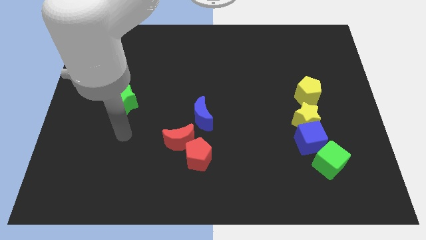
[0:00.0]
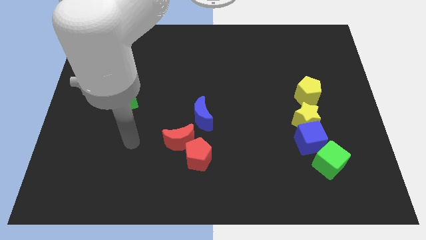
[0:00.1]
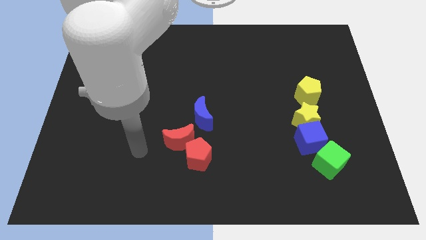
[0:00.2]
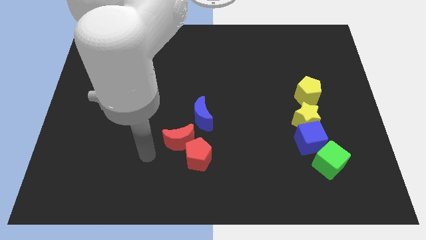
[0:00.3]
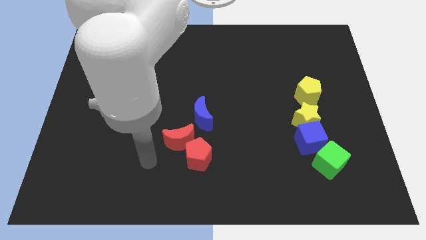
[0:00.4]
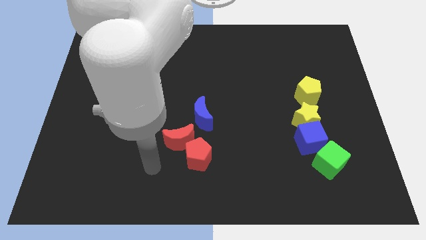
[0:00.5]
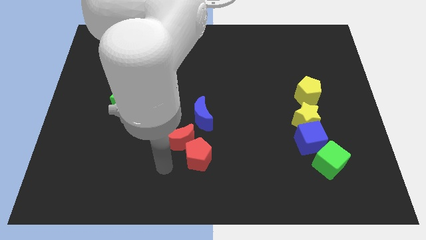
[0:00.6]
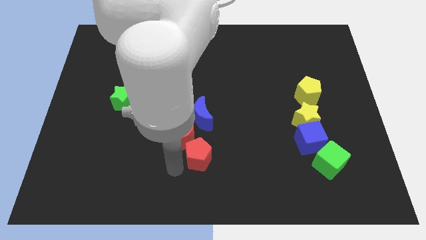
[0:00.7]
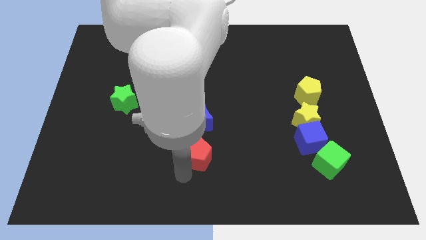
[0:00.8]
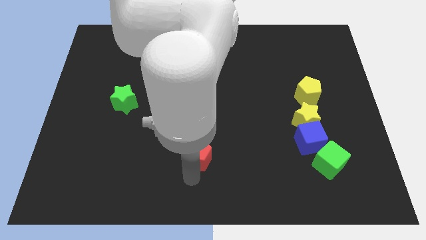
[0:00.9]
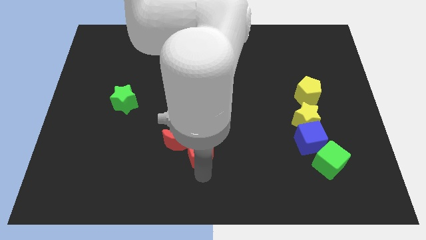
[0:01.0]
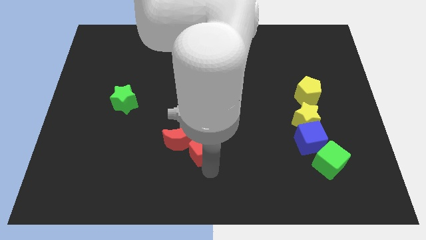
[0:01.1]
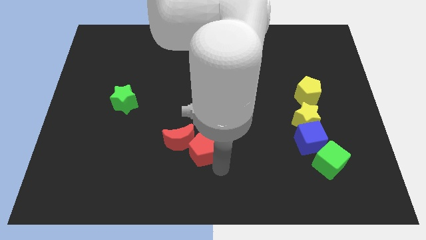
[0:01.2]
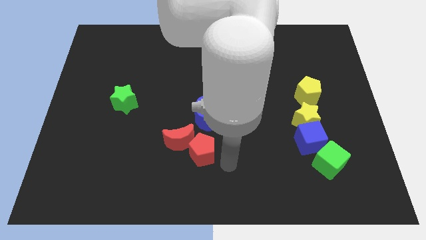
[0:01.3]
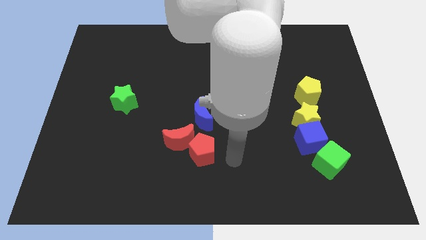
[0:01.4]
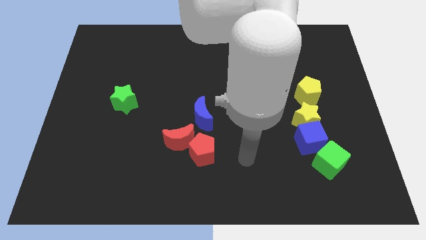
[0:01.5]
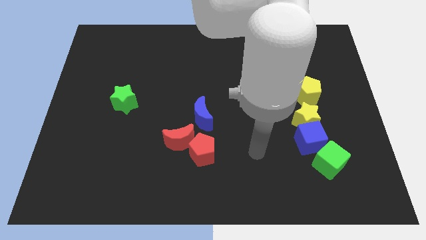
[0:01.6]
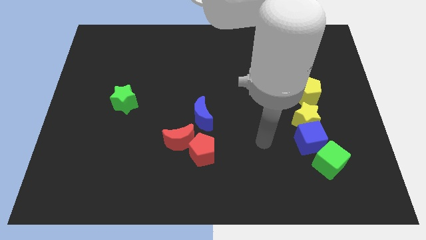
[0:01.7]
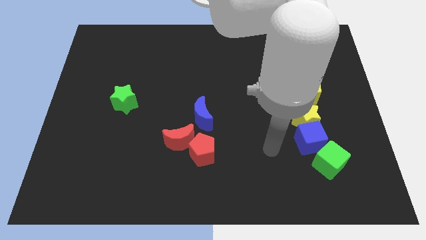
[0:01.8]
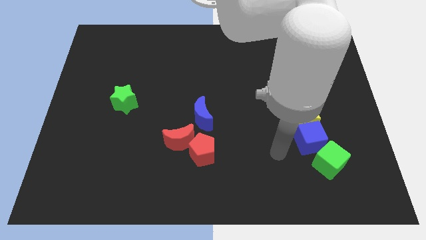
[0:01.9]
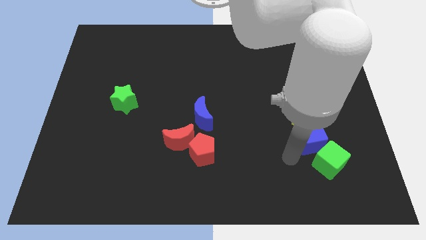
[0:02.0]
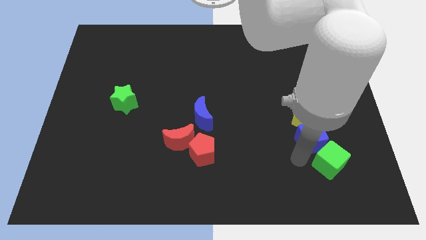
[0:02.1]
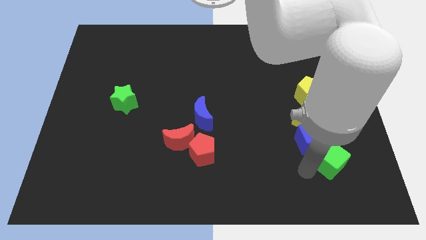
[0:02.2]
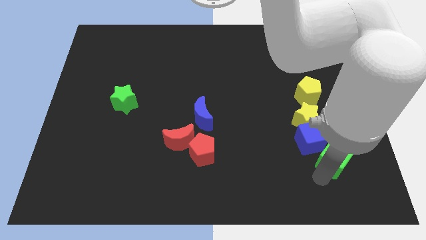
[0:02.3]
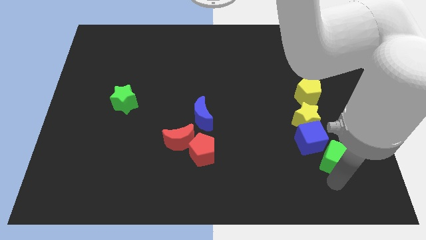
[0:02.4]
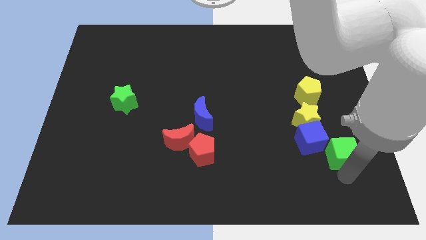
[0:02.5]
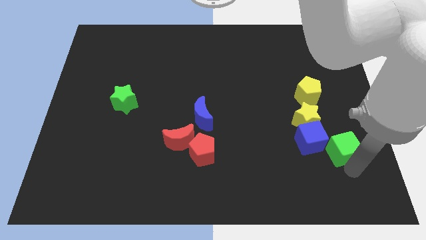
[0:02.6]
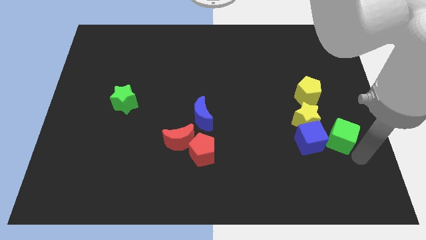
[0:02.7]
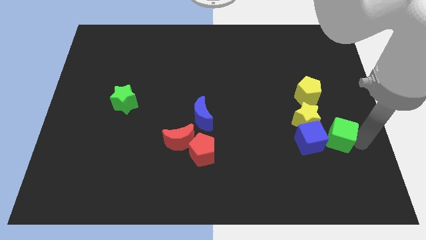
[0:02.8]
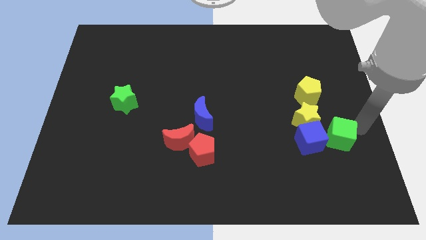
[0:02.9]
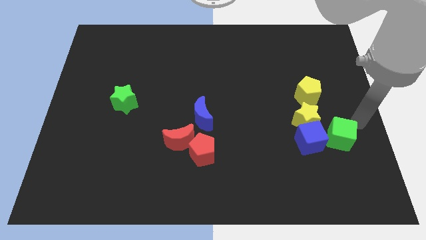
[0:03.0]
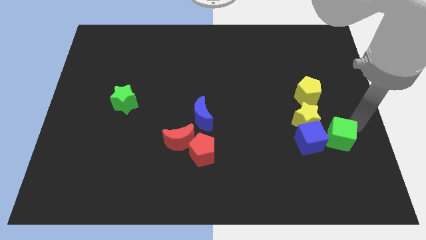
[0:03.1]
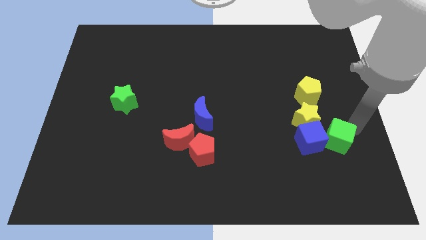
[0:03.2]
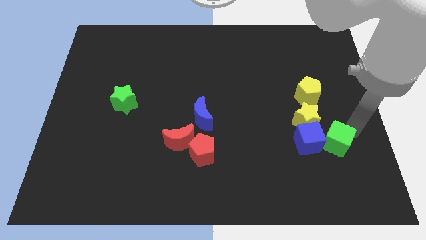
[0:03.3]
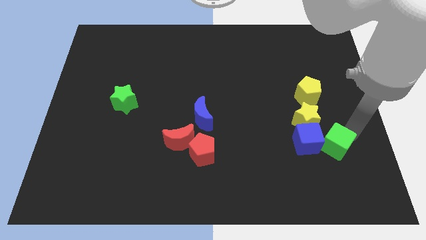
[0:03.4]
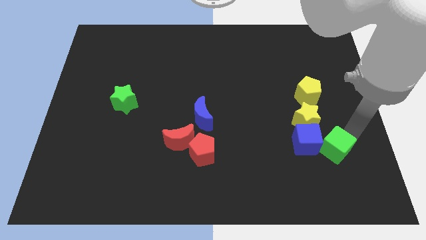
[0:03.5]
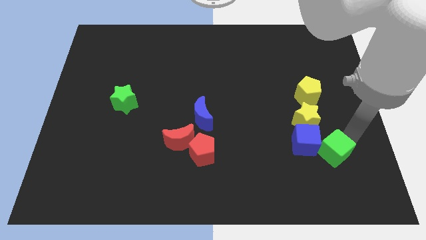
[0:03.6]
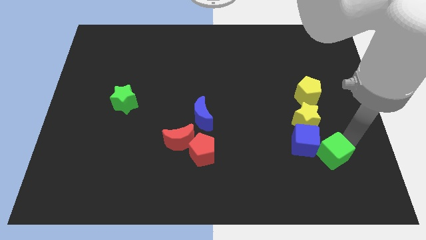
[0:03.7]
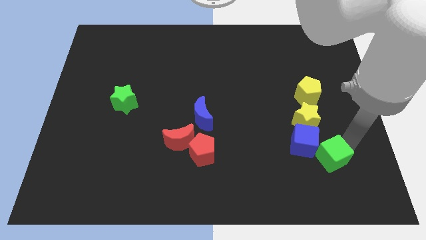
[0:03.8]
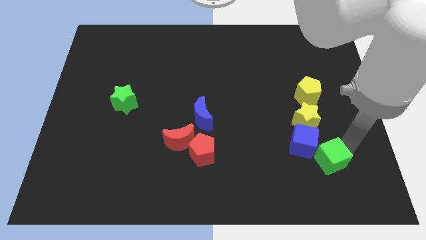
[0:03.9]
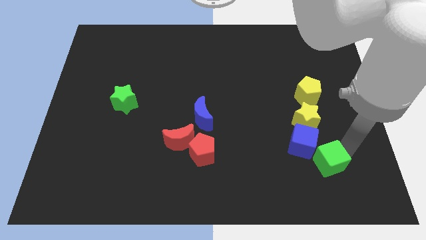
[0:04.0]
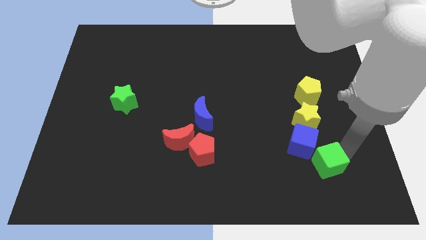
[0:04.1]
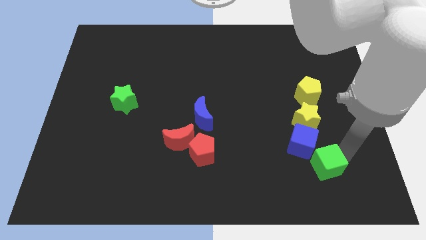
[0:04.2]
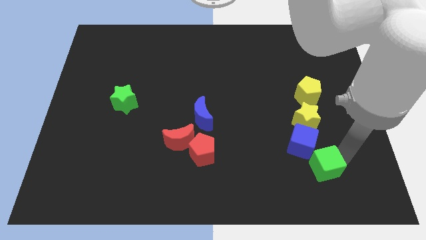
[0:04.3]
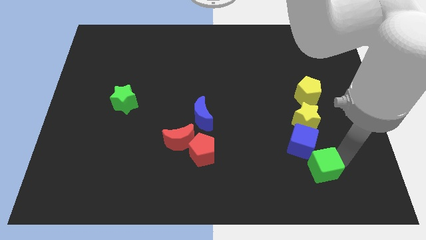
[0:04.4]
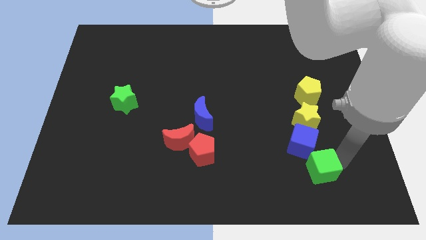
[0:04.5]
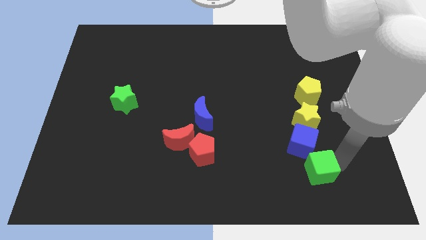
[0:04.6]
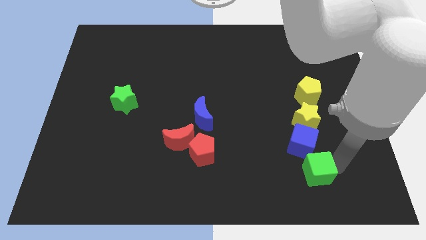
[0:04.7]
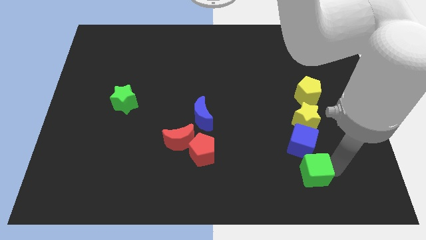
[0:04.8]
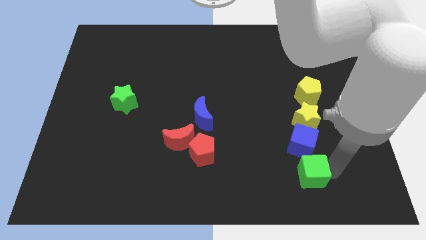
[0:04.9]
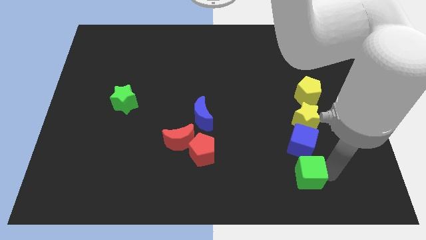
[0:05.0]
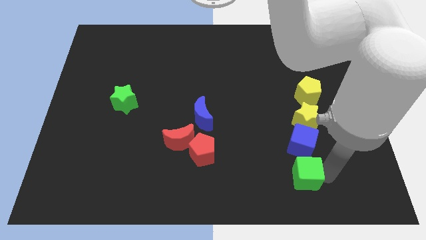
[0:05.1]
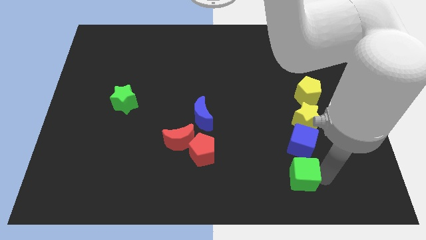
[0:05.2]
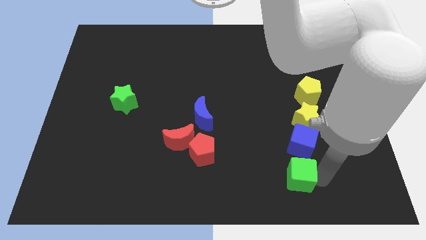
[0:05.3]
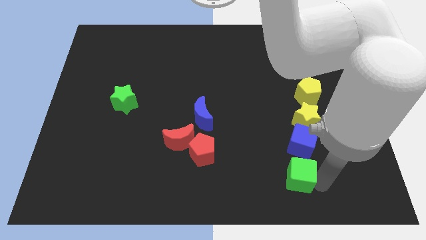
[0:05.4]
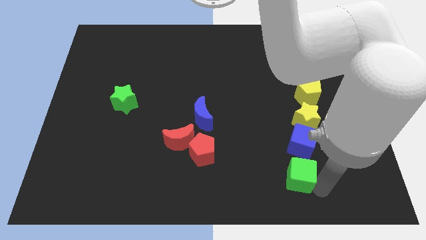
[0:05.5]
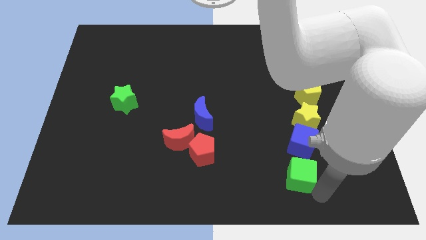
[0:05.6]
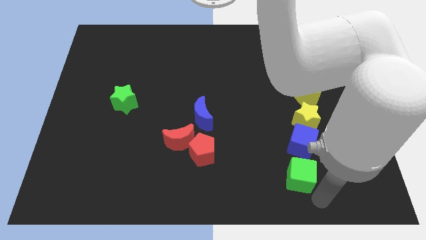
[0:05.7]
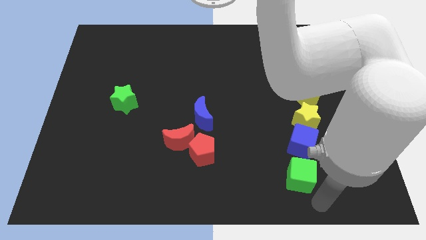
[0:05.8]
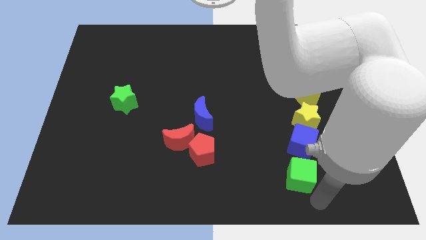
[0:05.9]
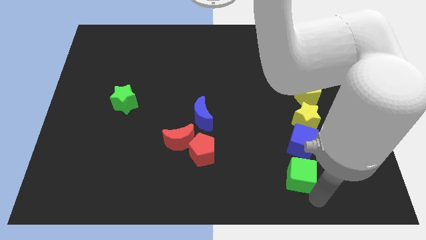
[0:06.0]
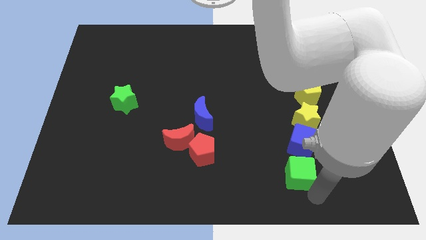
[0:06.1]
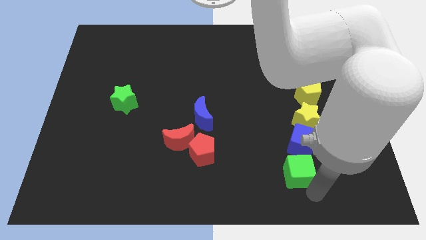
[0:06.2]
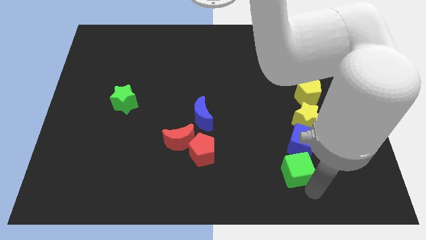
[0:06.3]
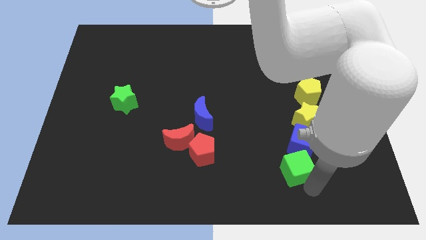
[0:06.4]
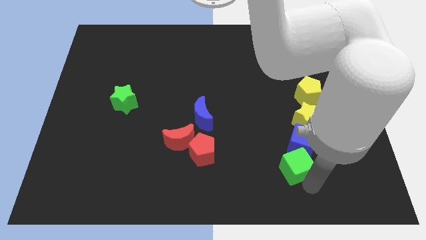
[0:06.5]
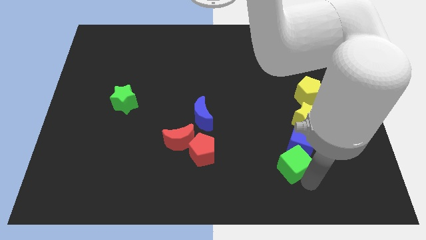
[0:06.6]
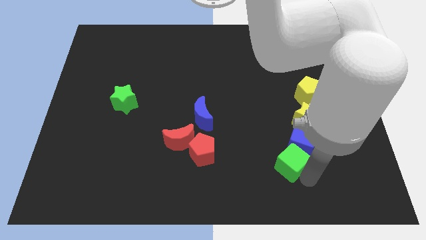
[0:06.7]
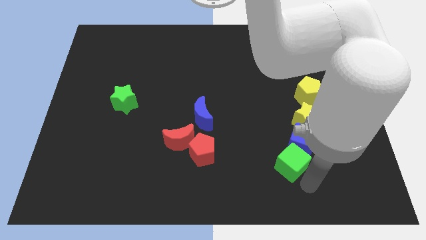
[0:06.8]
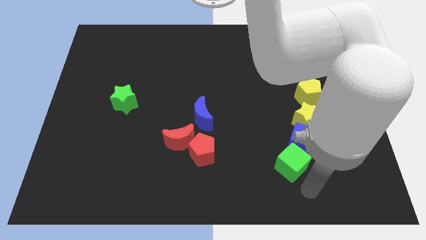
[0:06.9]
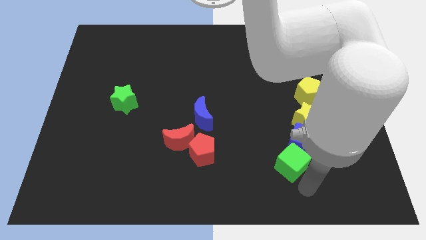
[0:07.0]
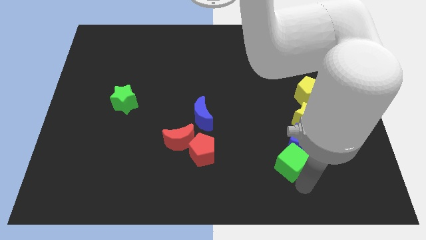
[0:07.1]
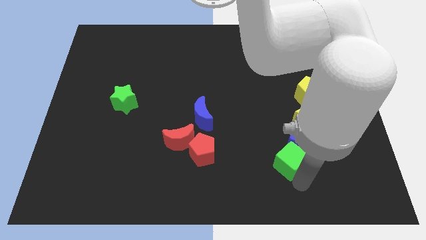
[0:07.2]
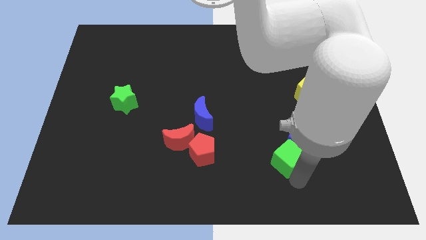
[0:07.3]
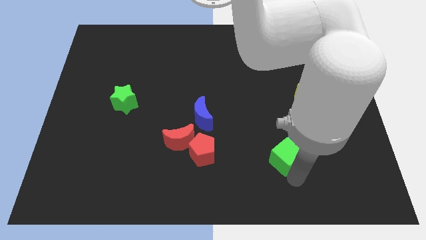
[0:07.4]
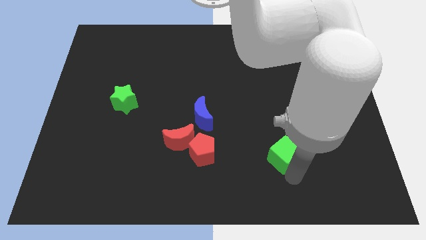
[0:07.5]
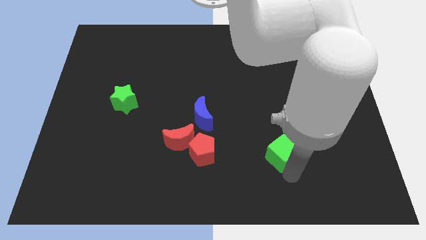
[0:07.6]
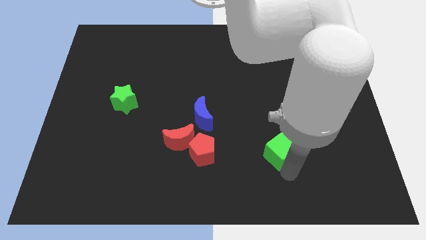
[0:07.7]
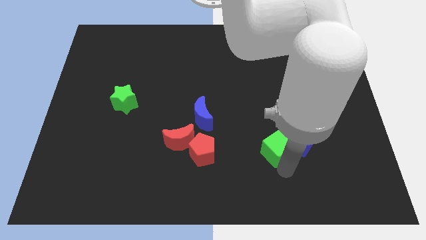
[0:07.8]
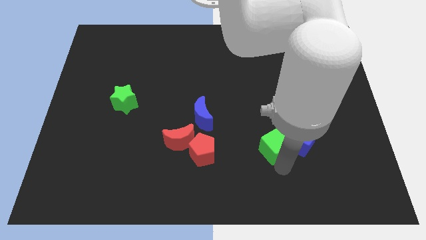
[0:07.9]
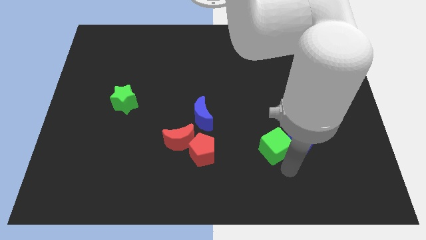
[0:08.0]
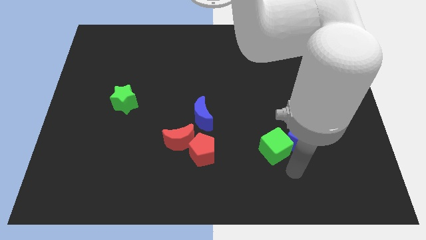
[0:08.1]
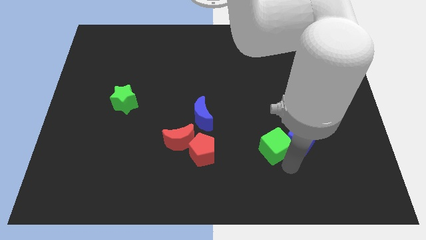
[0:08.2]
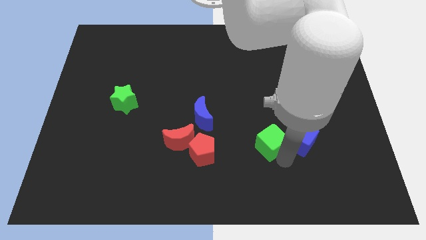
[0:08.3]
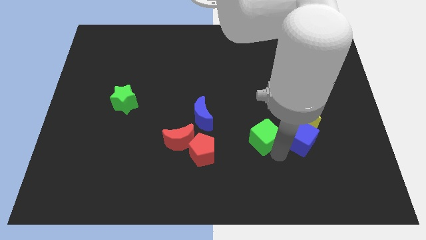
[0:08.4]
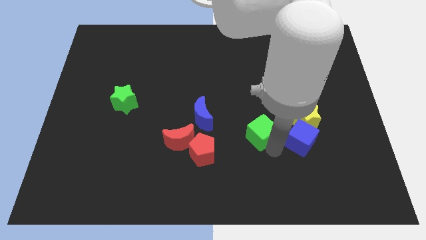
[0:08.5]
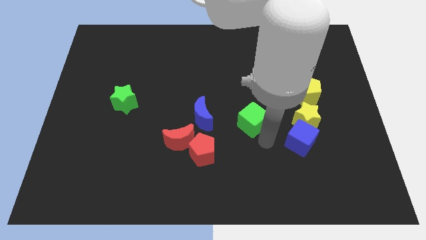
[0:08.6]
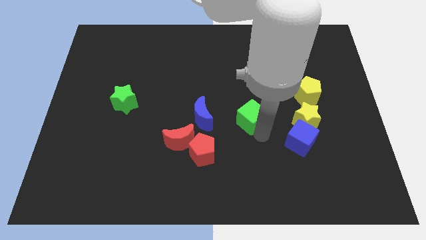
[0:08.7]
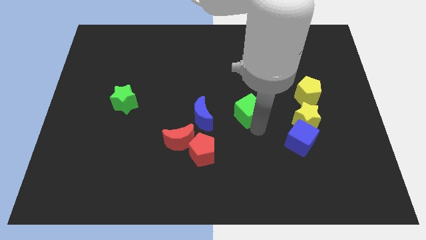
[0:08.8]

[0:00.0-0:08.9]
push the green cube upwards and left
